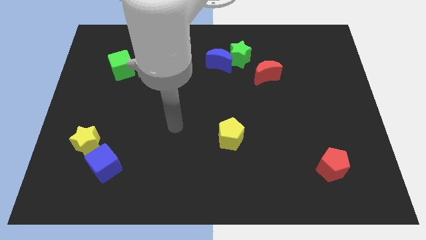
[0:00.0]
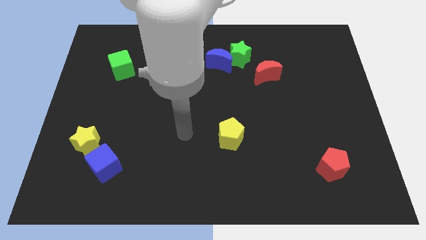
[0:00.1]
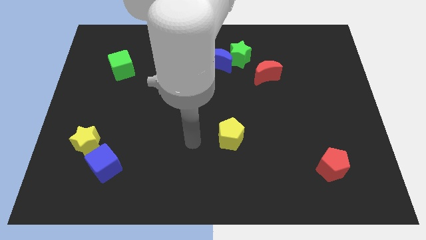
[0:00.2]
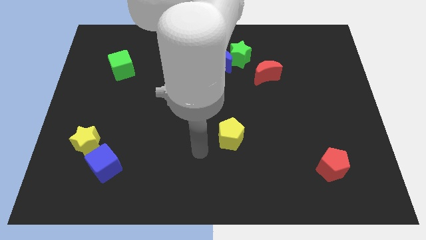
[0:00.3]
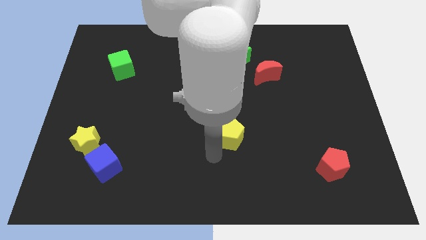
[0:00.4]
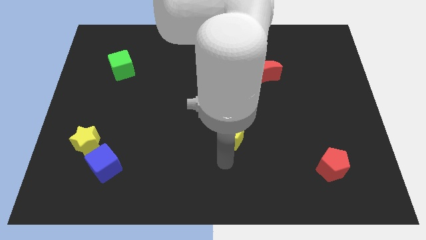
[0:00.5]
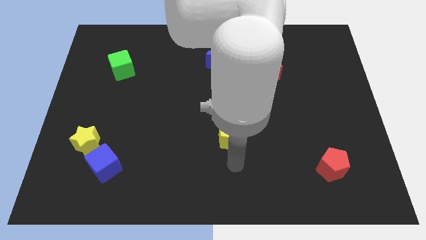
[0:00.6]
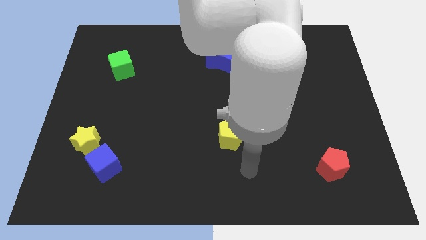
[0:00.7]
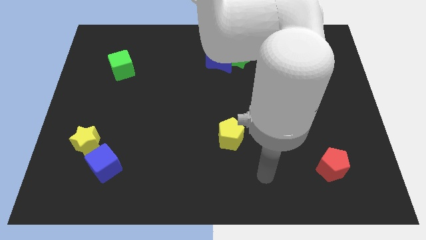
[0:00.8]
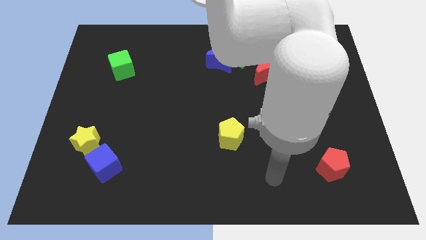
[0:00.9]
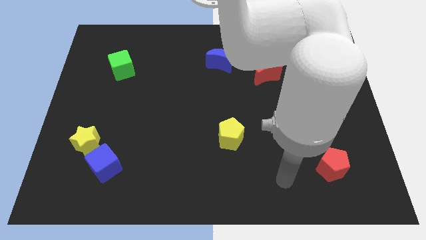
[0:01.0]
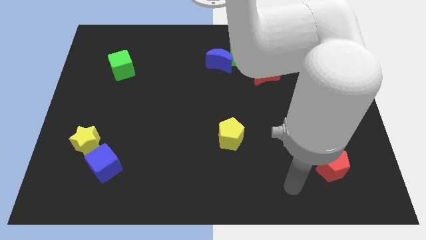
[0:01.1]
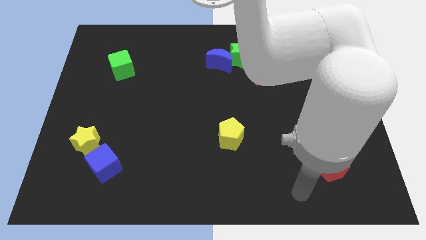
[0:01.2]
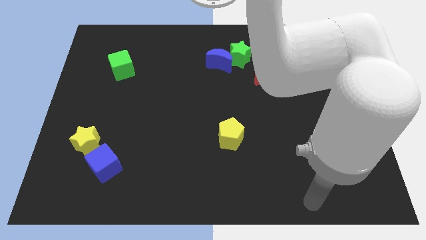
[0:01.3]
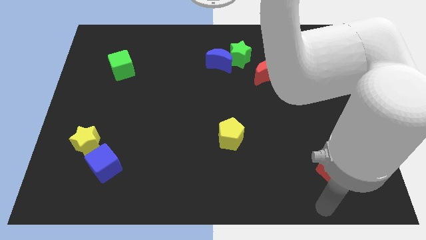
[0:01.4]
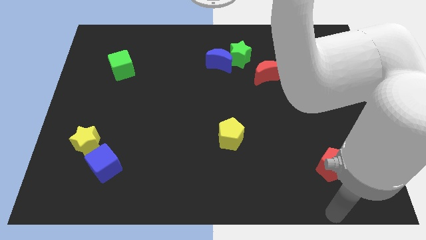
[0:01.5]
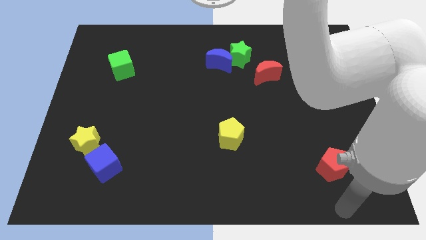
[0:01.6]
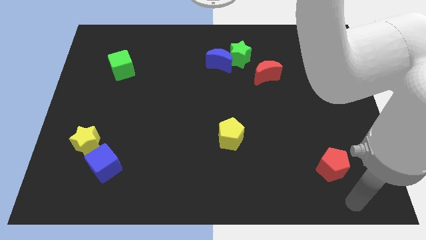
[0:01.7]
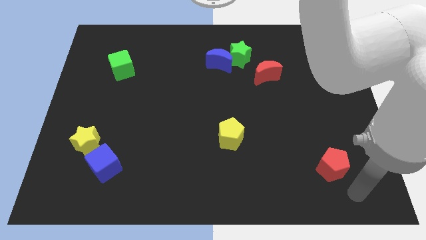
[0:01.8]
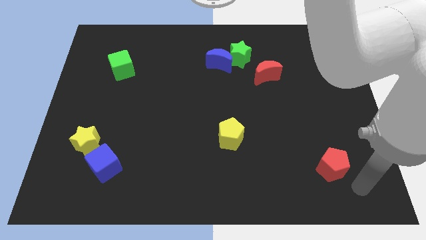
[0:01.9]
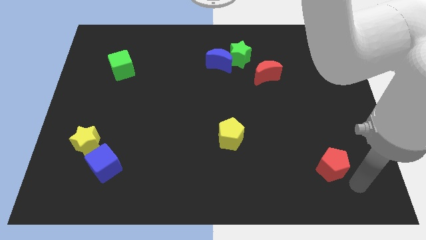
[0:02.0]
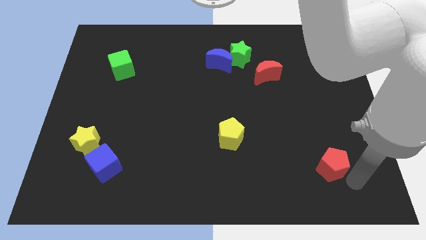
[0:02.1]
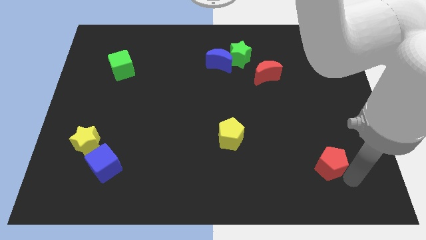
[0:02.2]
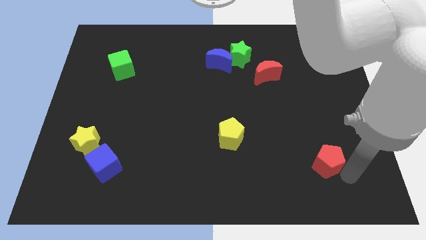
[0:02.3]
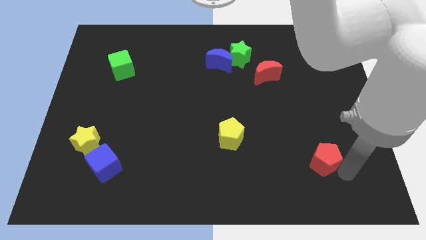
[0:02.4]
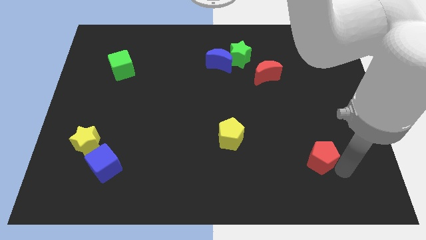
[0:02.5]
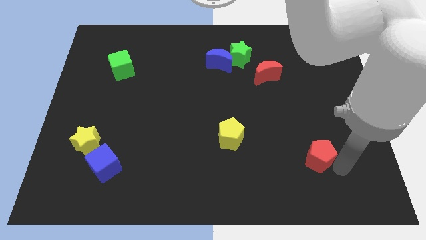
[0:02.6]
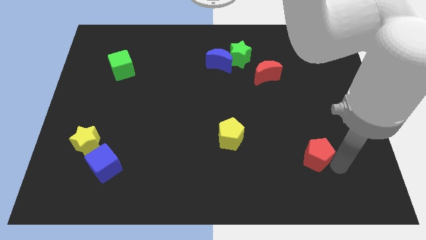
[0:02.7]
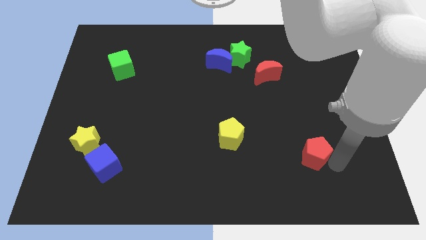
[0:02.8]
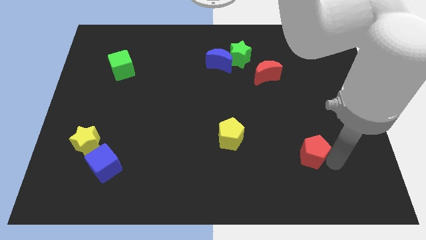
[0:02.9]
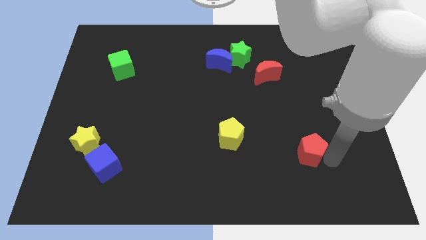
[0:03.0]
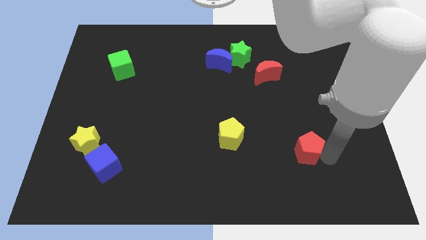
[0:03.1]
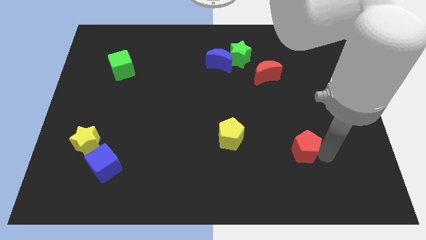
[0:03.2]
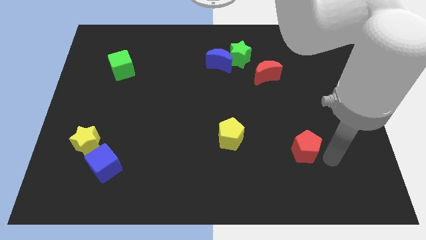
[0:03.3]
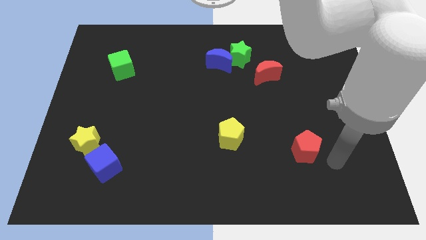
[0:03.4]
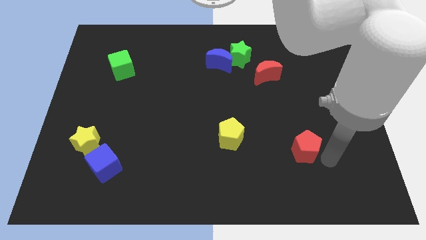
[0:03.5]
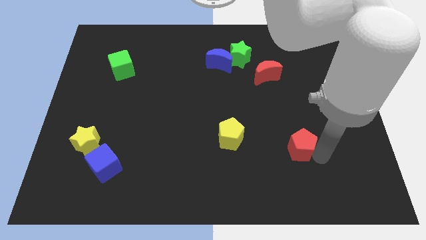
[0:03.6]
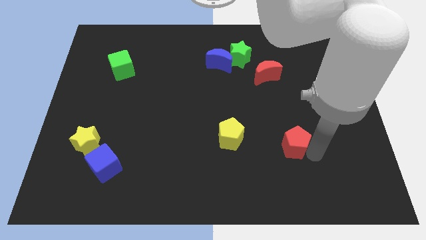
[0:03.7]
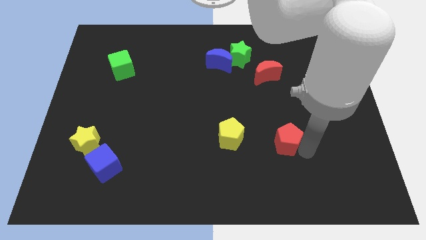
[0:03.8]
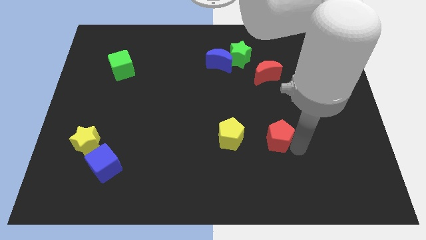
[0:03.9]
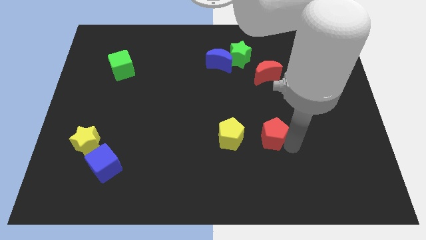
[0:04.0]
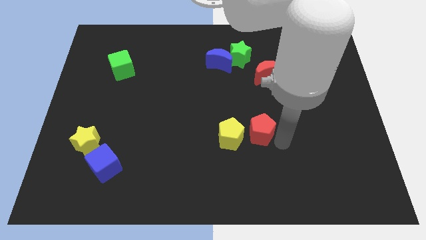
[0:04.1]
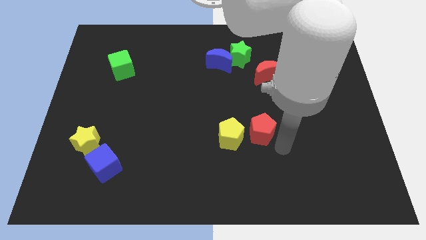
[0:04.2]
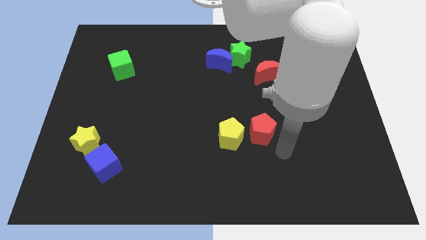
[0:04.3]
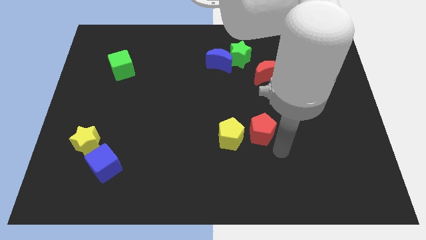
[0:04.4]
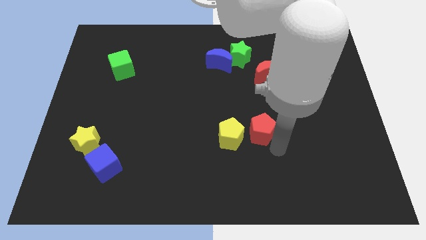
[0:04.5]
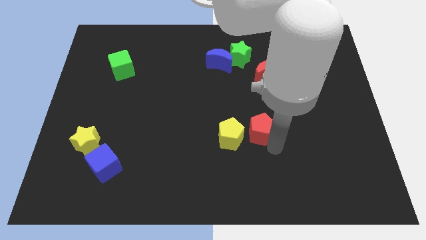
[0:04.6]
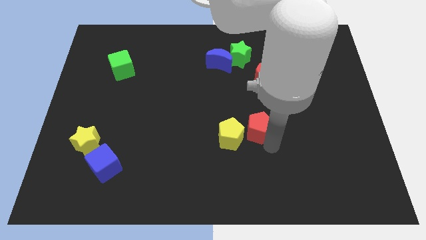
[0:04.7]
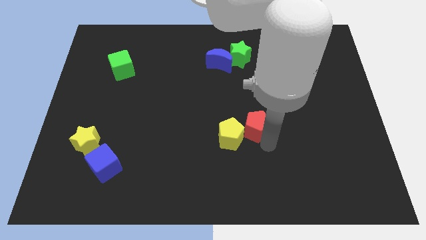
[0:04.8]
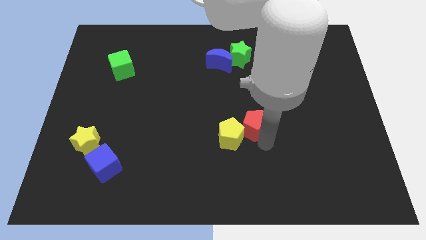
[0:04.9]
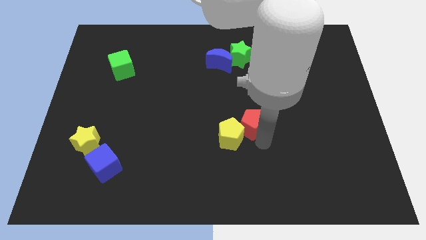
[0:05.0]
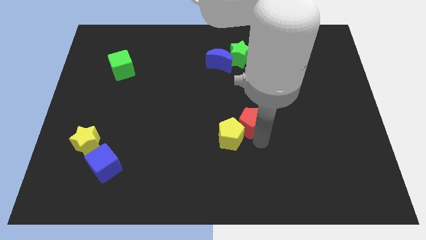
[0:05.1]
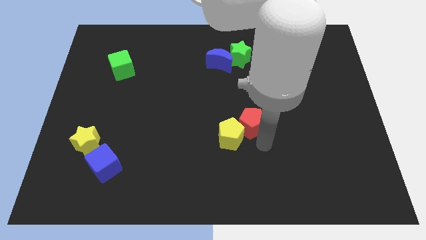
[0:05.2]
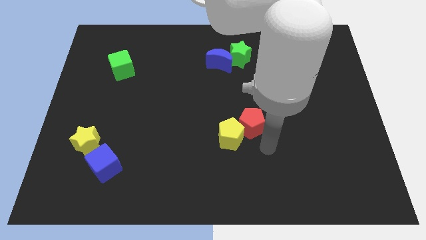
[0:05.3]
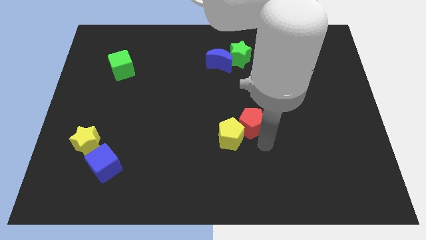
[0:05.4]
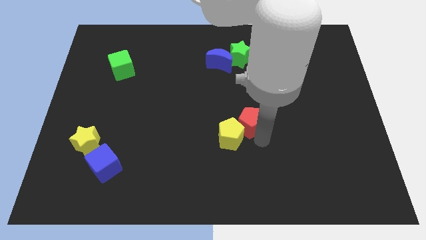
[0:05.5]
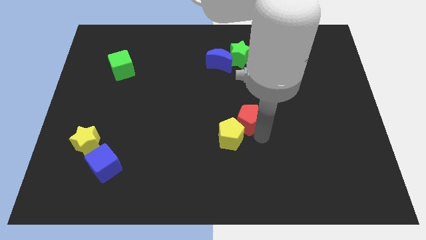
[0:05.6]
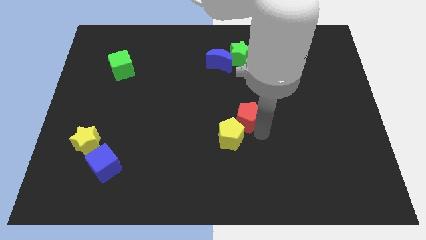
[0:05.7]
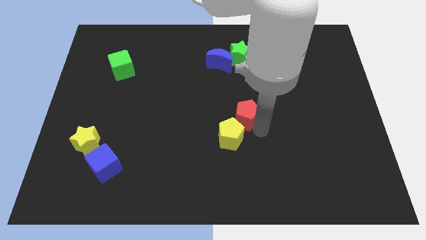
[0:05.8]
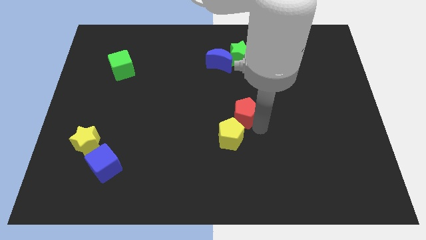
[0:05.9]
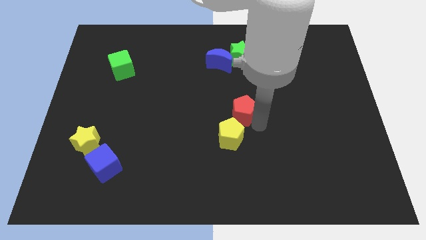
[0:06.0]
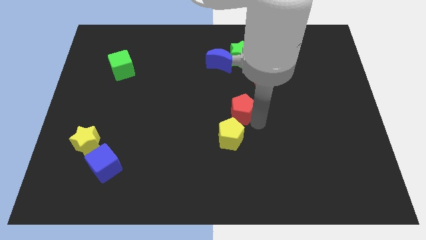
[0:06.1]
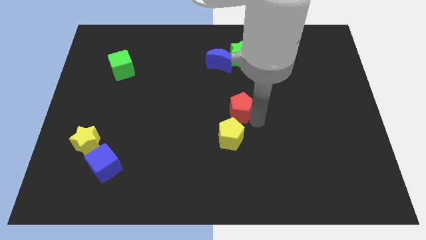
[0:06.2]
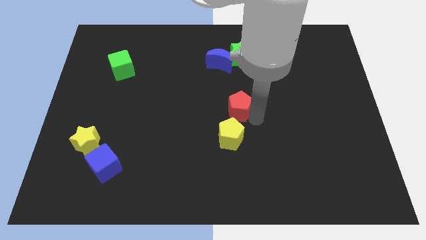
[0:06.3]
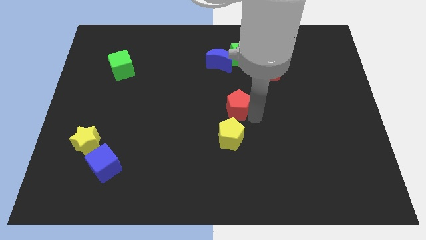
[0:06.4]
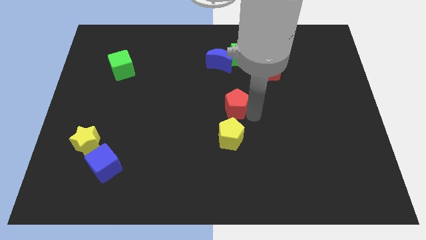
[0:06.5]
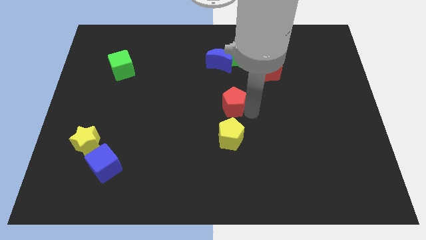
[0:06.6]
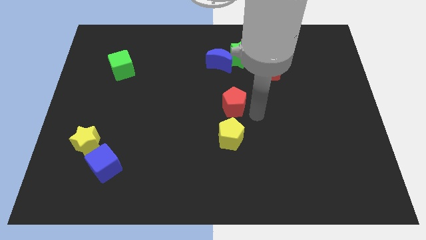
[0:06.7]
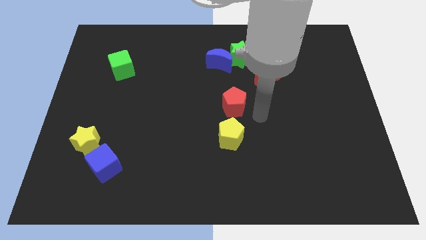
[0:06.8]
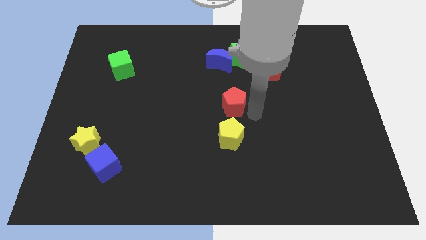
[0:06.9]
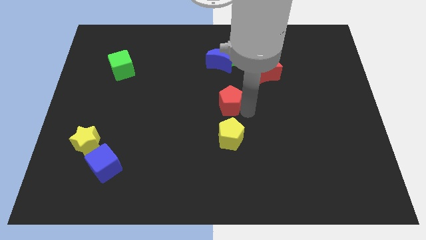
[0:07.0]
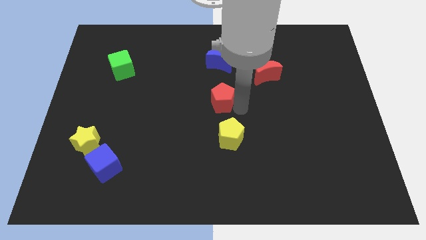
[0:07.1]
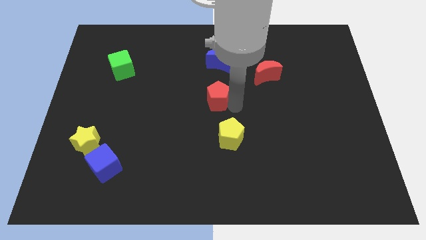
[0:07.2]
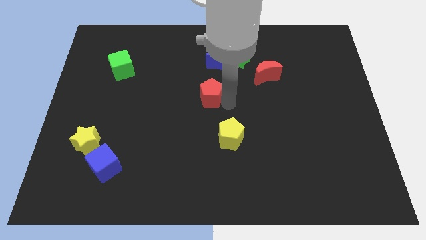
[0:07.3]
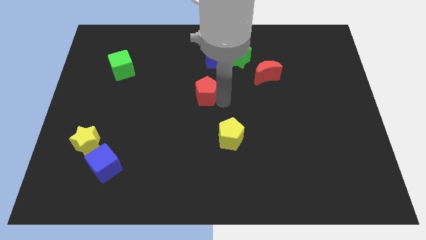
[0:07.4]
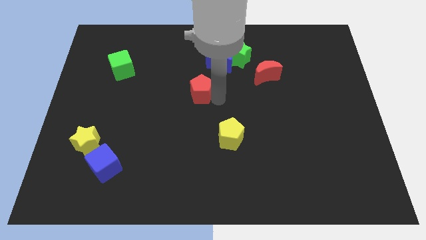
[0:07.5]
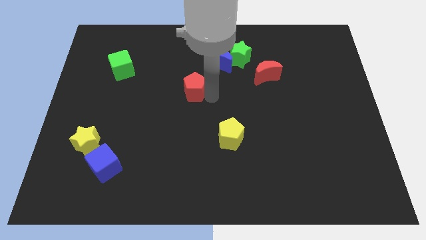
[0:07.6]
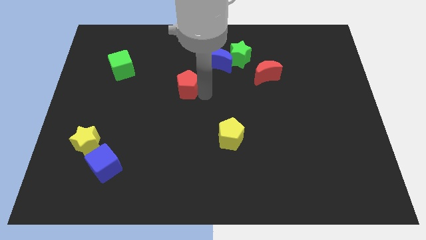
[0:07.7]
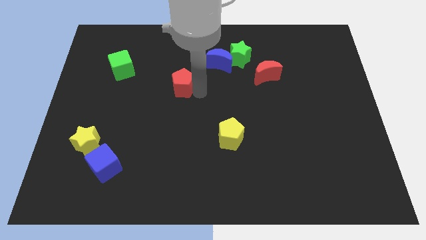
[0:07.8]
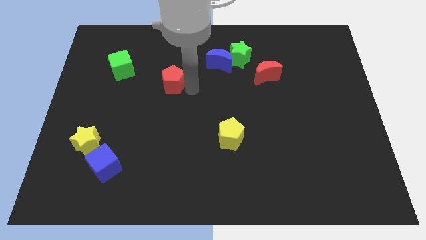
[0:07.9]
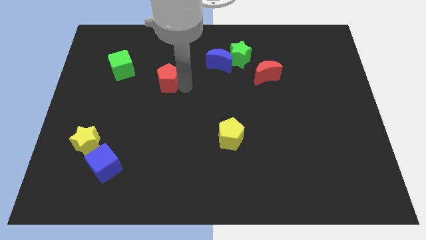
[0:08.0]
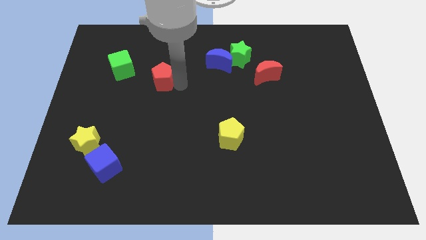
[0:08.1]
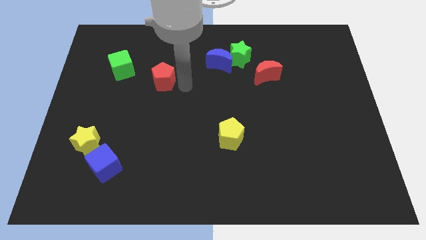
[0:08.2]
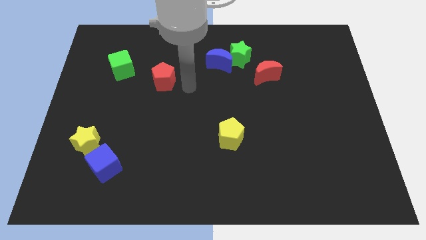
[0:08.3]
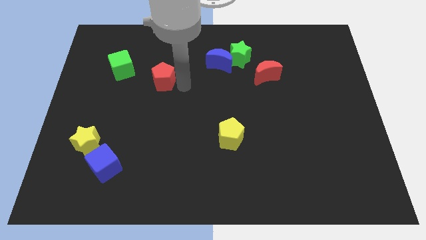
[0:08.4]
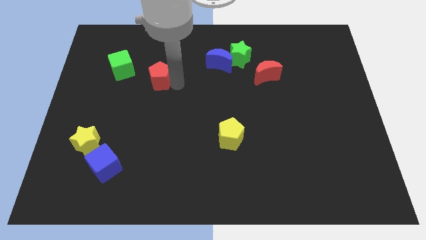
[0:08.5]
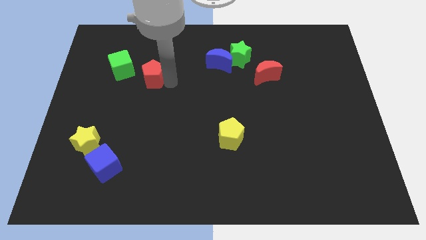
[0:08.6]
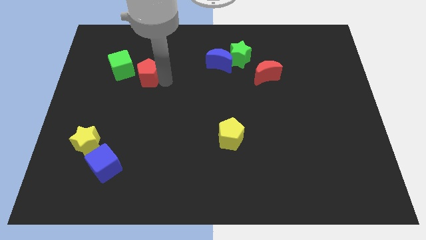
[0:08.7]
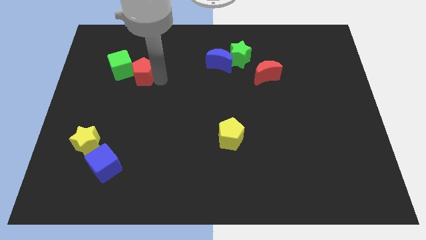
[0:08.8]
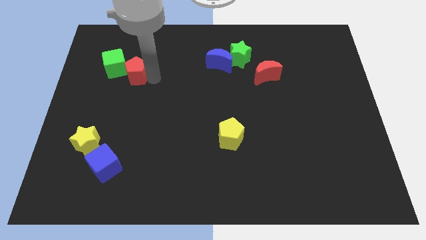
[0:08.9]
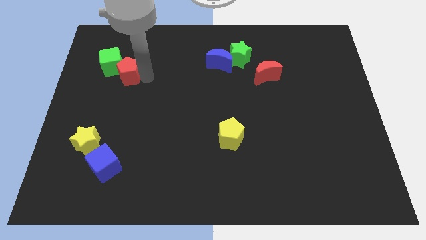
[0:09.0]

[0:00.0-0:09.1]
put the red pentagon to the green cube
